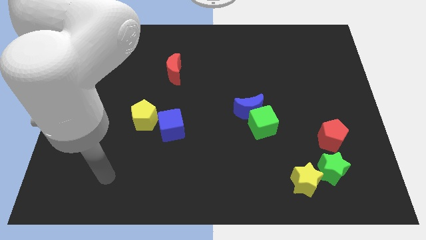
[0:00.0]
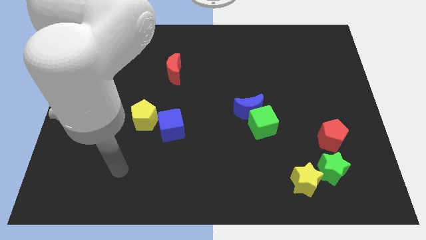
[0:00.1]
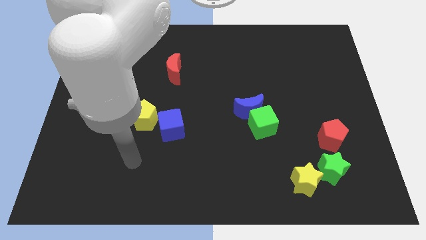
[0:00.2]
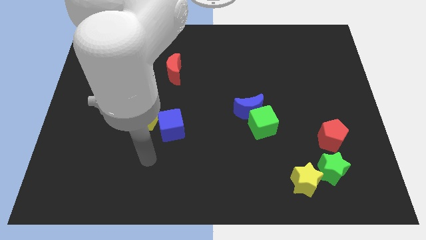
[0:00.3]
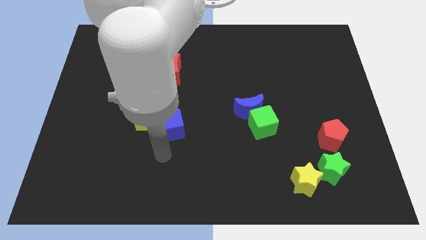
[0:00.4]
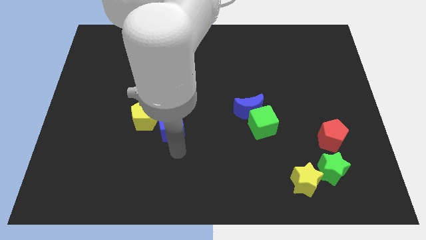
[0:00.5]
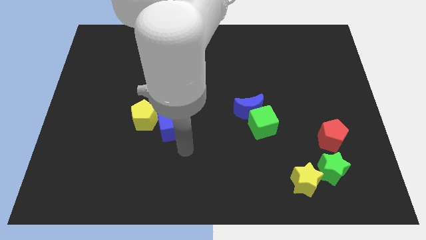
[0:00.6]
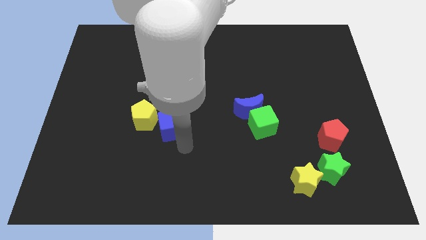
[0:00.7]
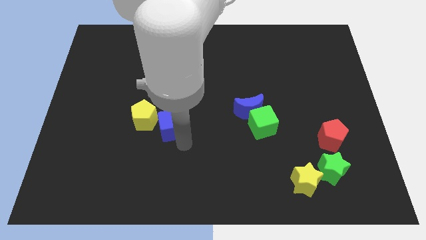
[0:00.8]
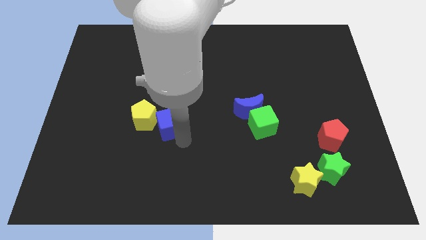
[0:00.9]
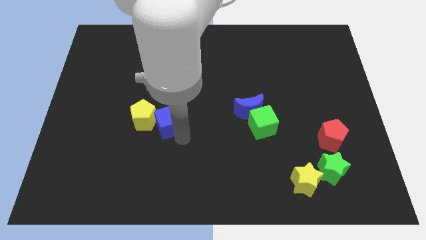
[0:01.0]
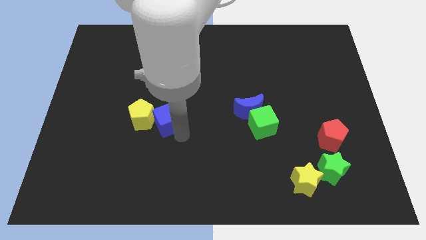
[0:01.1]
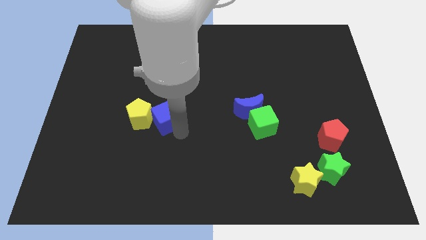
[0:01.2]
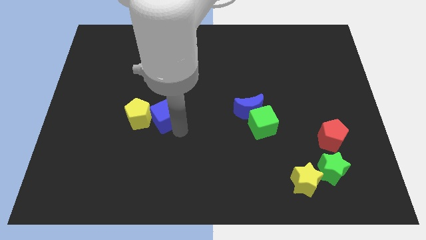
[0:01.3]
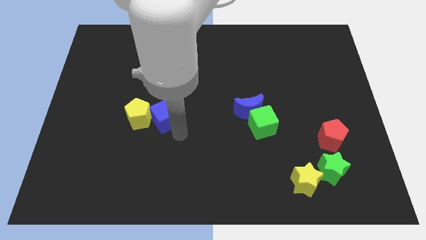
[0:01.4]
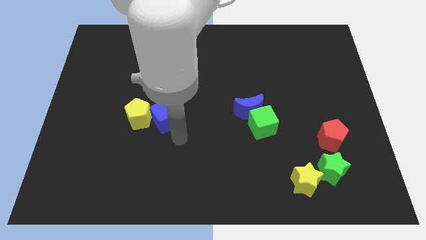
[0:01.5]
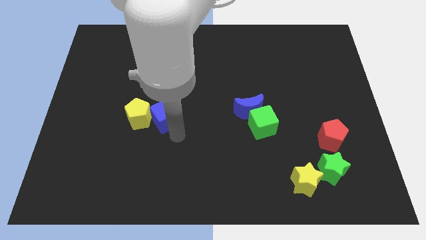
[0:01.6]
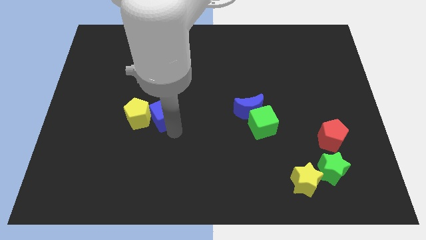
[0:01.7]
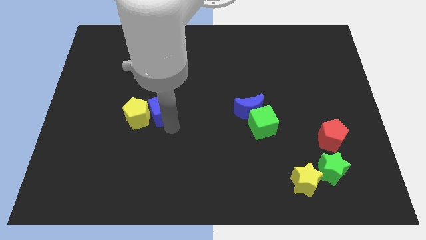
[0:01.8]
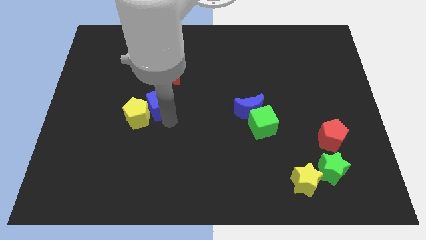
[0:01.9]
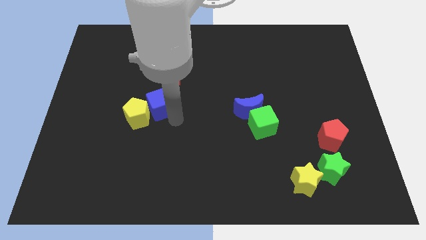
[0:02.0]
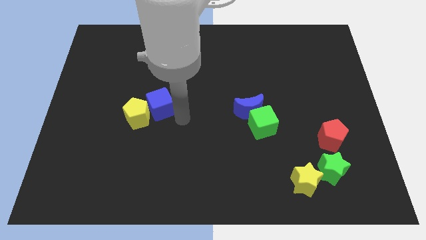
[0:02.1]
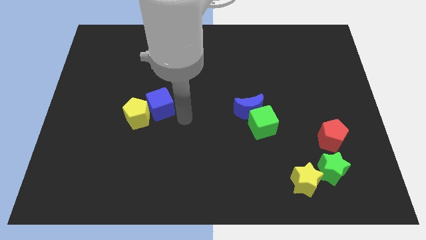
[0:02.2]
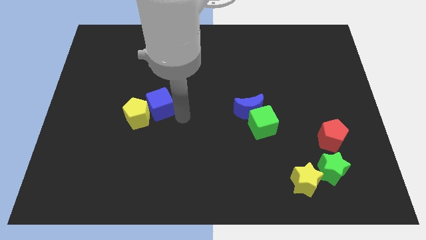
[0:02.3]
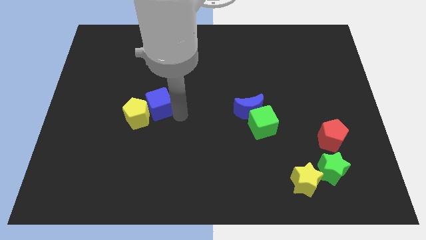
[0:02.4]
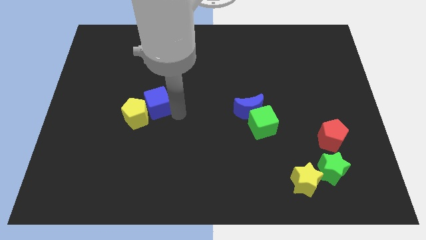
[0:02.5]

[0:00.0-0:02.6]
push the blue cube upwards and then left slightly

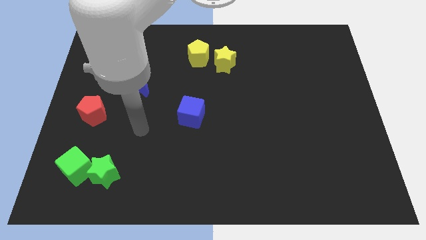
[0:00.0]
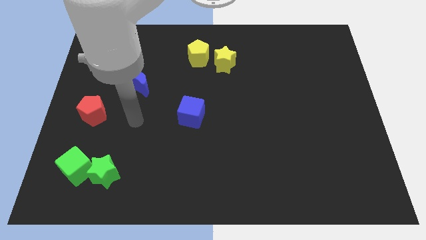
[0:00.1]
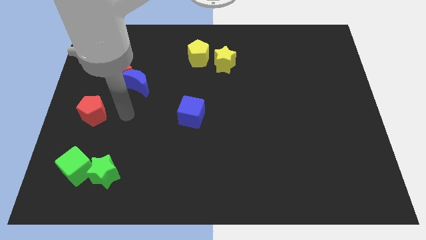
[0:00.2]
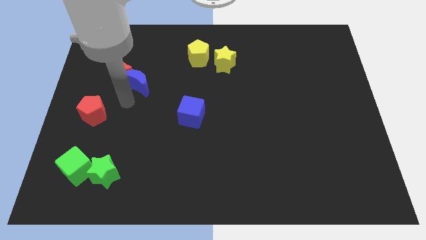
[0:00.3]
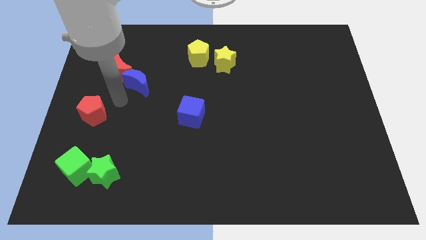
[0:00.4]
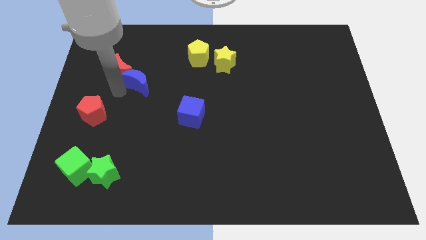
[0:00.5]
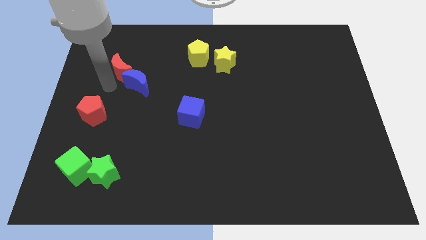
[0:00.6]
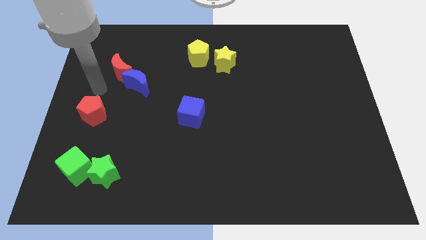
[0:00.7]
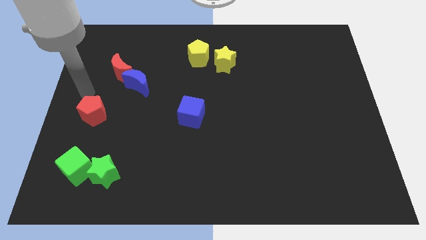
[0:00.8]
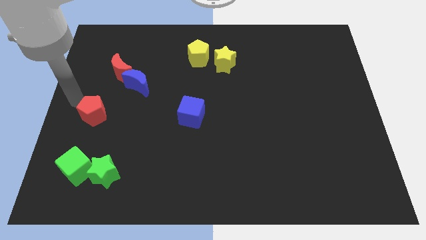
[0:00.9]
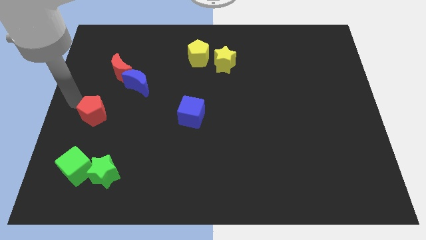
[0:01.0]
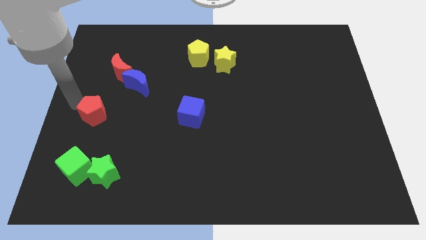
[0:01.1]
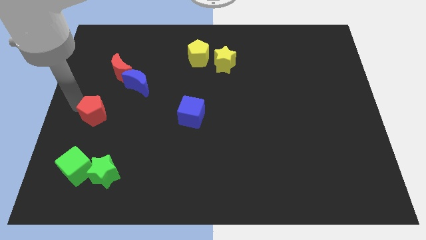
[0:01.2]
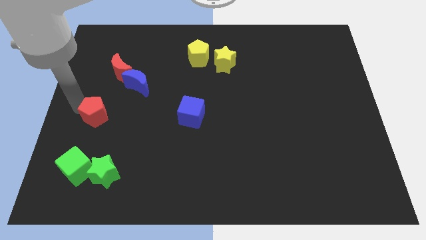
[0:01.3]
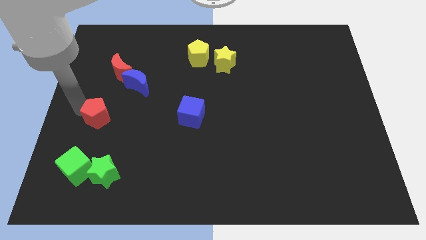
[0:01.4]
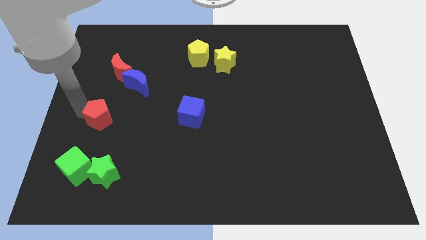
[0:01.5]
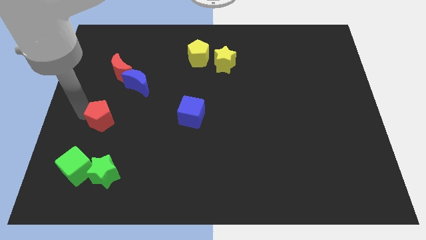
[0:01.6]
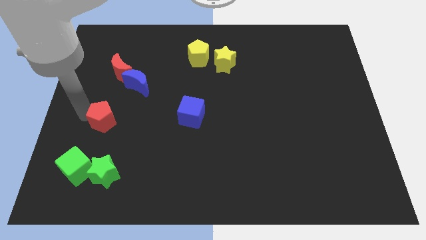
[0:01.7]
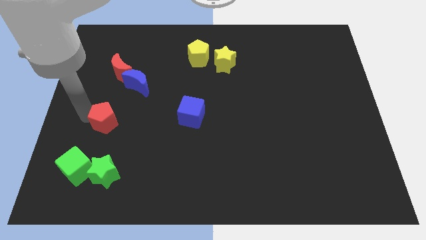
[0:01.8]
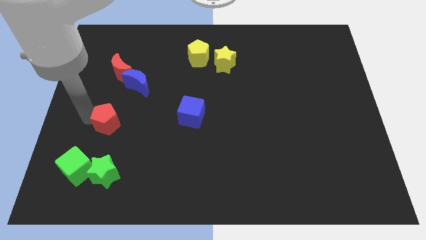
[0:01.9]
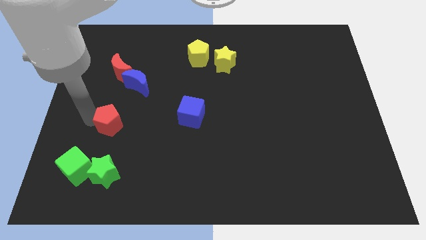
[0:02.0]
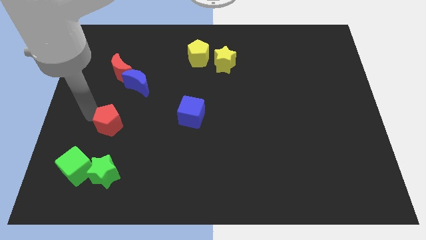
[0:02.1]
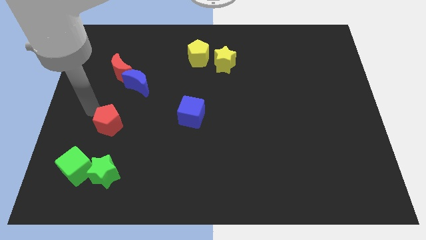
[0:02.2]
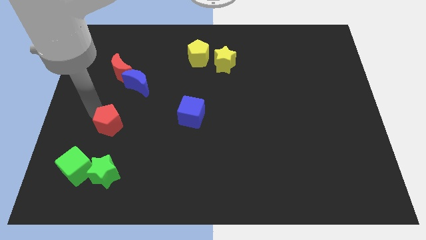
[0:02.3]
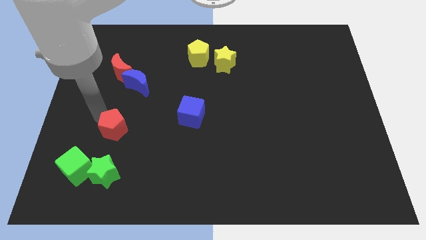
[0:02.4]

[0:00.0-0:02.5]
push the red pentagon a bit down and to the right diagonally

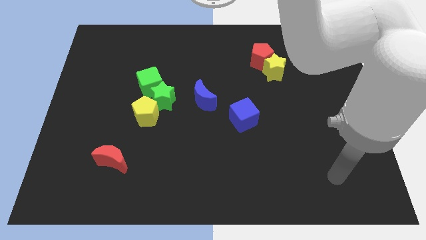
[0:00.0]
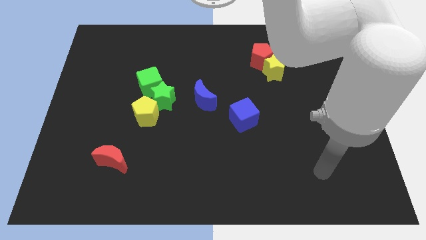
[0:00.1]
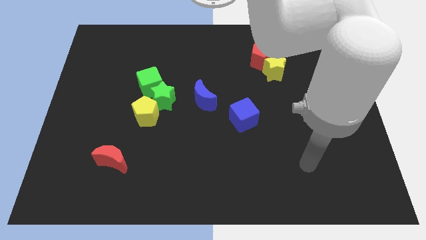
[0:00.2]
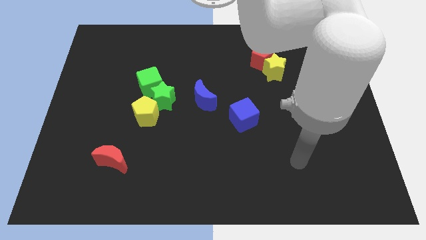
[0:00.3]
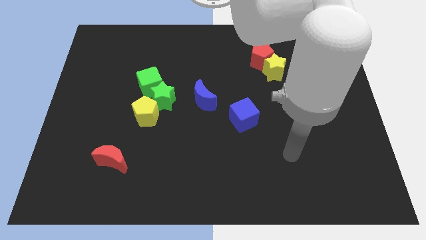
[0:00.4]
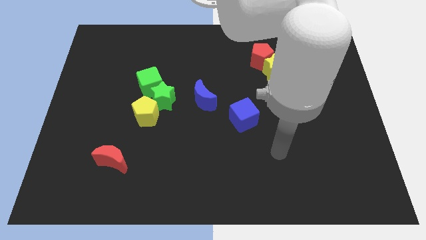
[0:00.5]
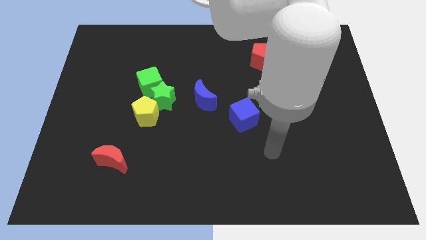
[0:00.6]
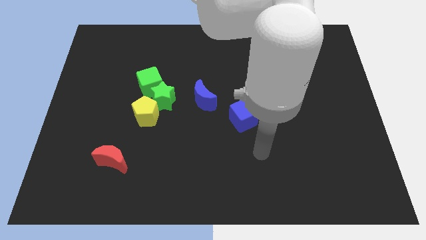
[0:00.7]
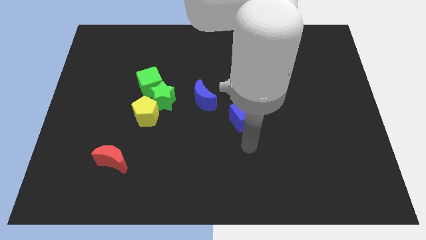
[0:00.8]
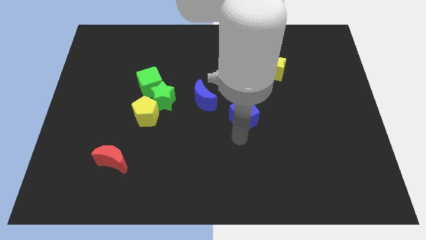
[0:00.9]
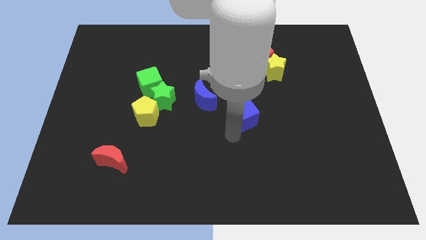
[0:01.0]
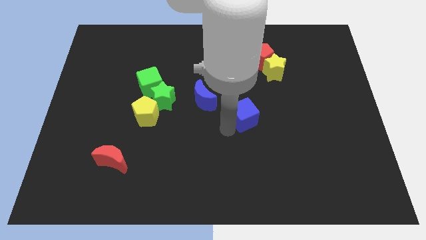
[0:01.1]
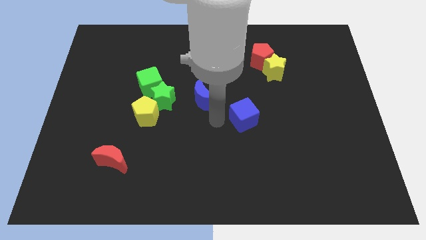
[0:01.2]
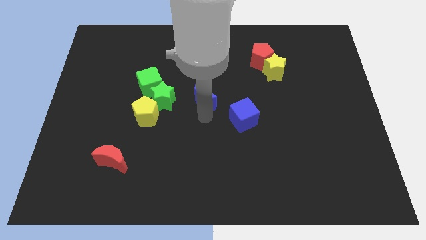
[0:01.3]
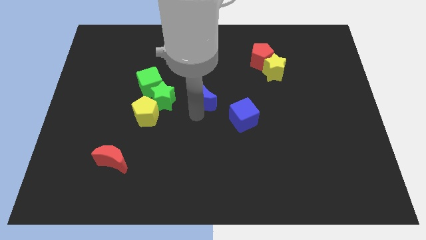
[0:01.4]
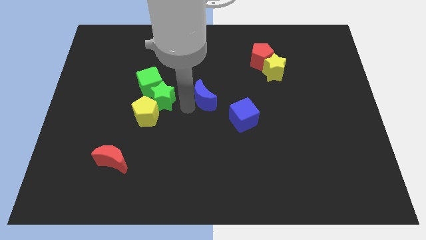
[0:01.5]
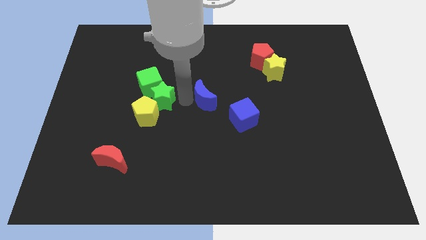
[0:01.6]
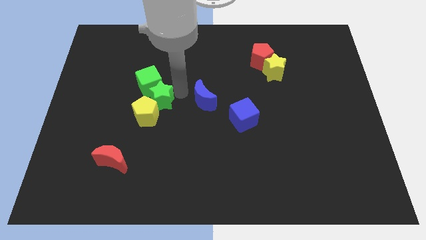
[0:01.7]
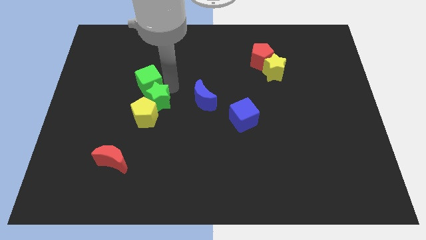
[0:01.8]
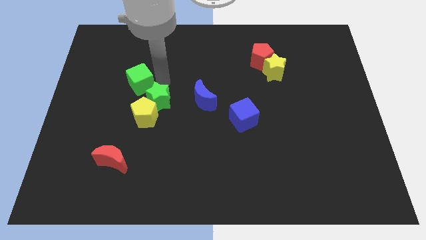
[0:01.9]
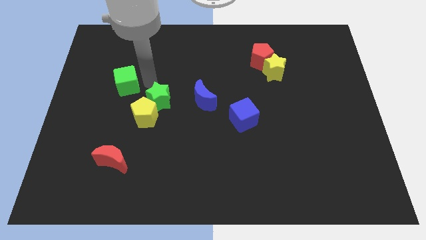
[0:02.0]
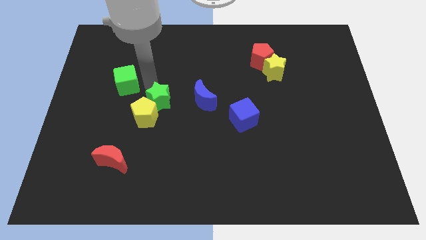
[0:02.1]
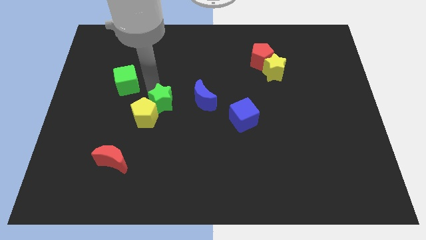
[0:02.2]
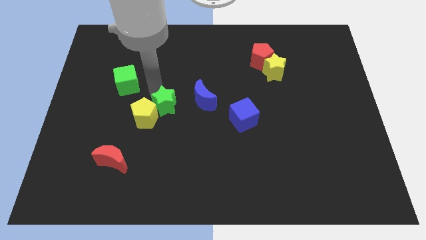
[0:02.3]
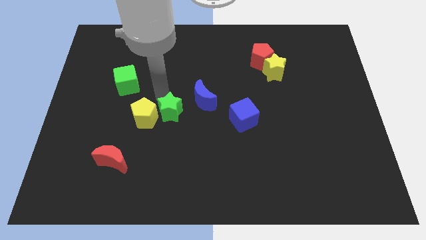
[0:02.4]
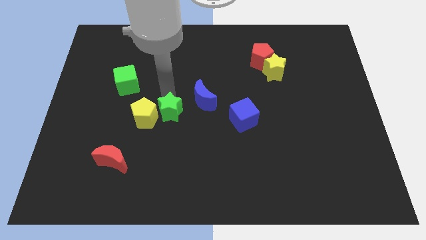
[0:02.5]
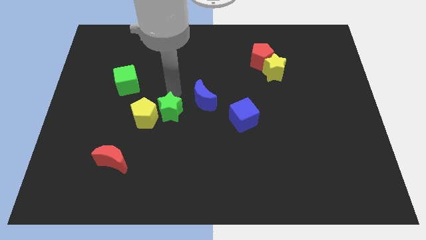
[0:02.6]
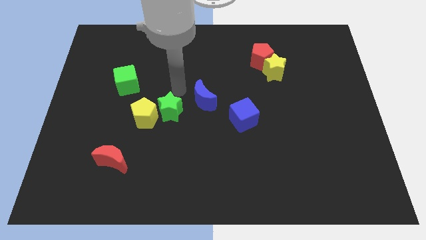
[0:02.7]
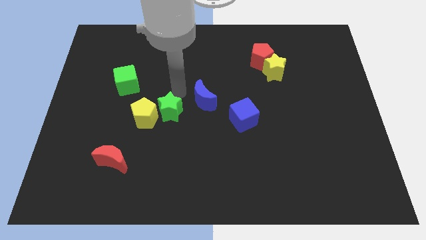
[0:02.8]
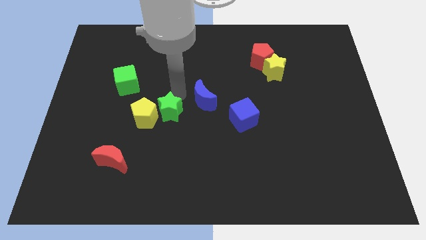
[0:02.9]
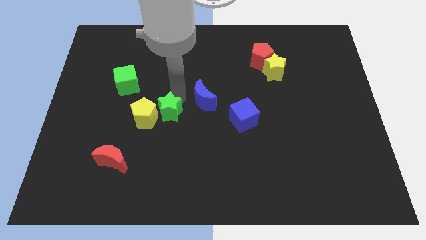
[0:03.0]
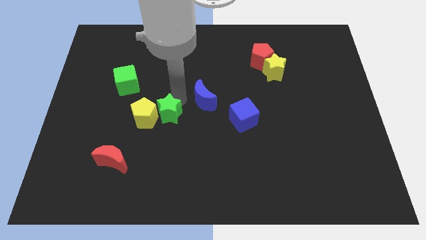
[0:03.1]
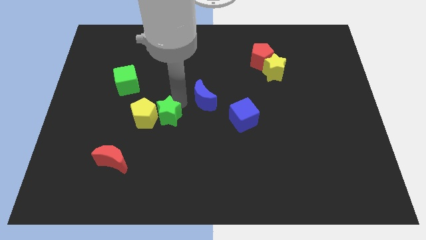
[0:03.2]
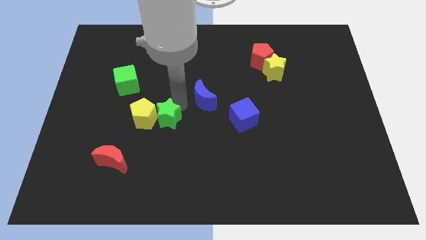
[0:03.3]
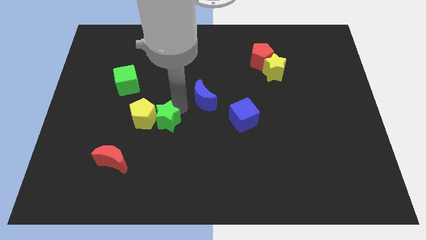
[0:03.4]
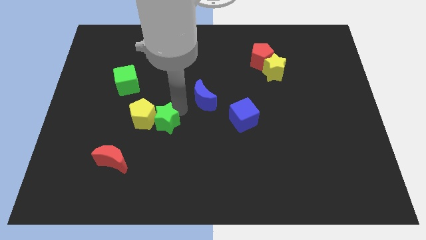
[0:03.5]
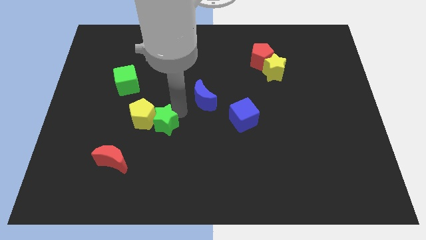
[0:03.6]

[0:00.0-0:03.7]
slightly slide the green star down
